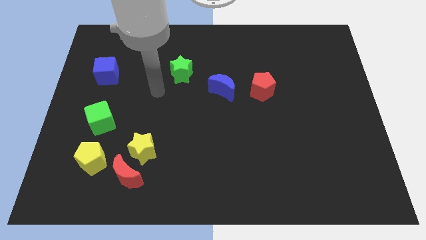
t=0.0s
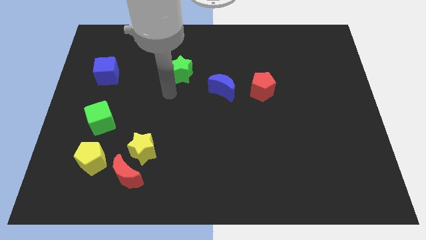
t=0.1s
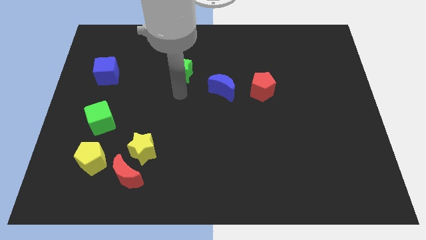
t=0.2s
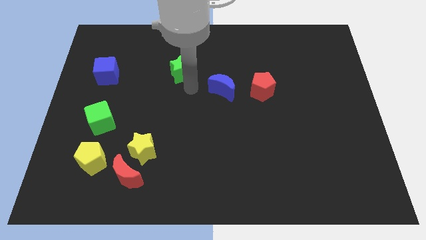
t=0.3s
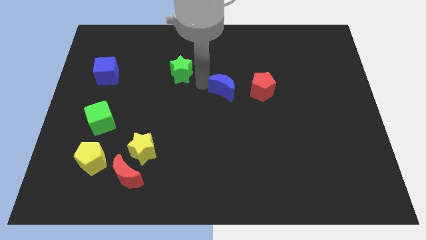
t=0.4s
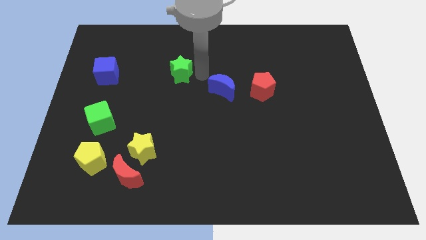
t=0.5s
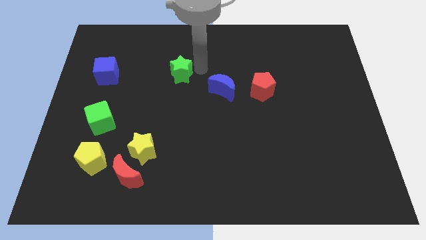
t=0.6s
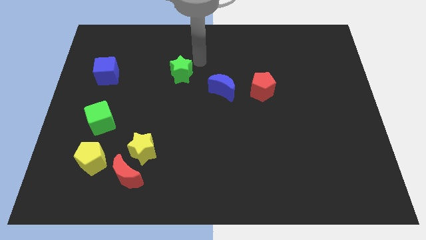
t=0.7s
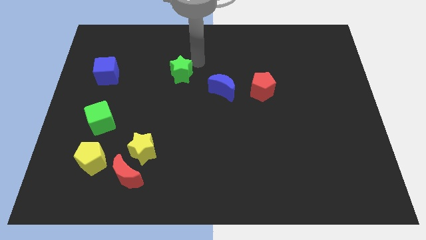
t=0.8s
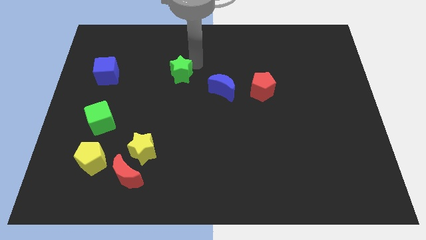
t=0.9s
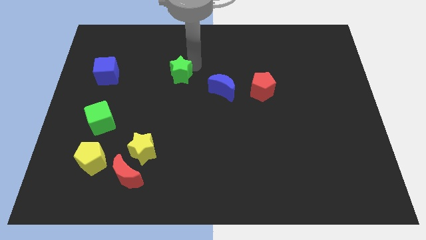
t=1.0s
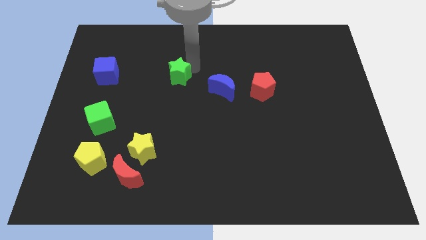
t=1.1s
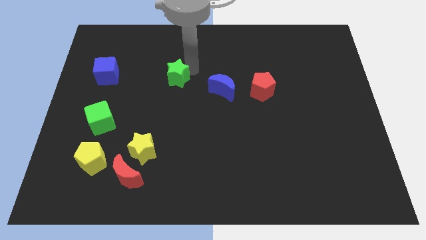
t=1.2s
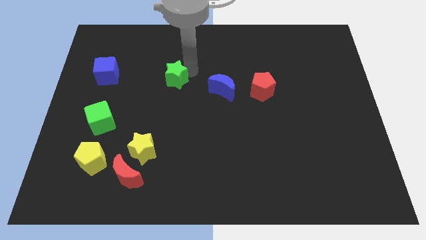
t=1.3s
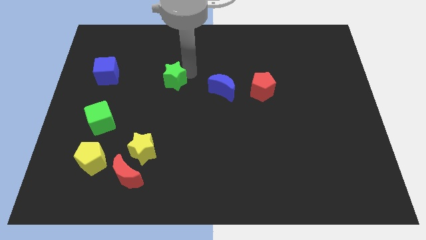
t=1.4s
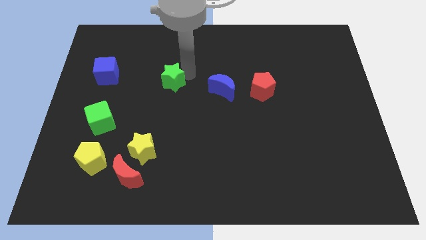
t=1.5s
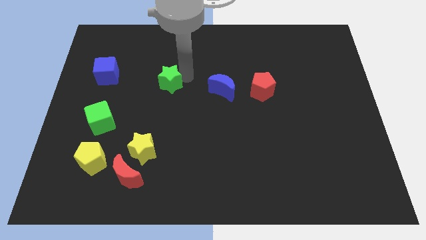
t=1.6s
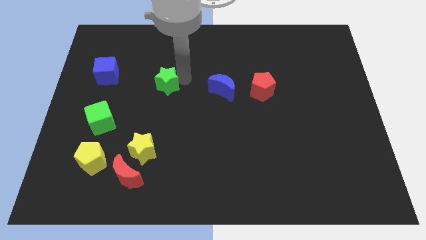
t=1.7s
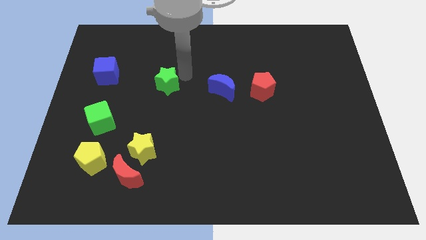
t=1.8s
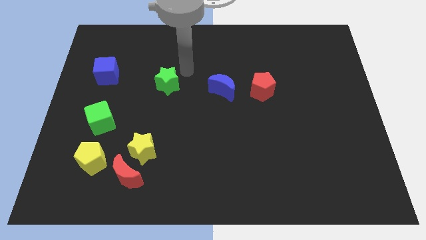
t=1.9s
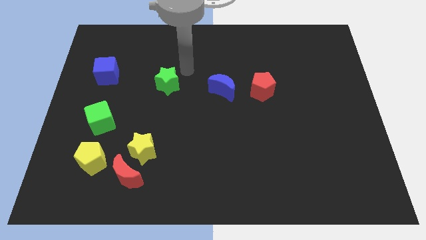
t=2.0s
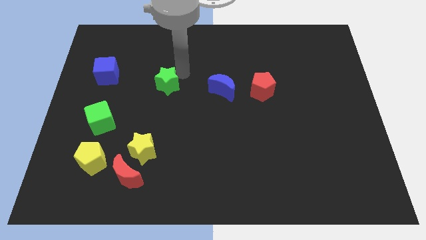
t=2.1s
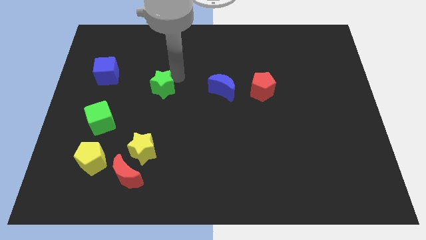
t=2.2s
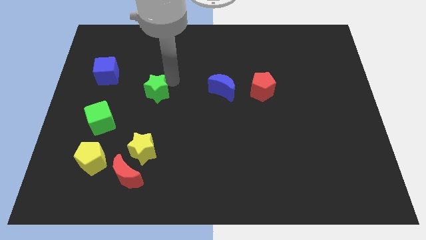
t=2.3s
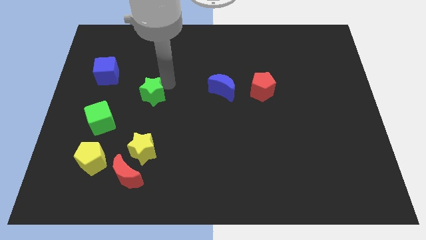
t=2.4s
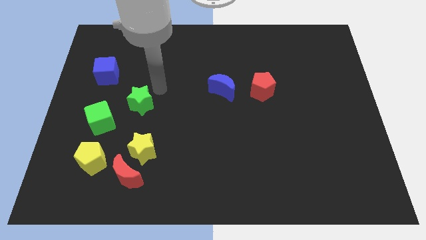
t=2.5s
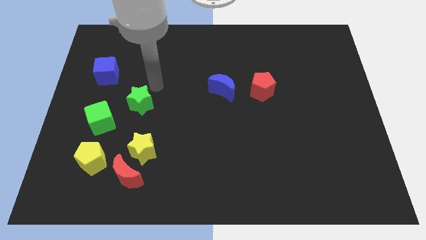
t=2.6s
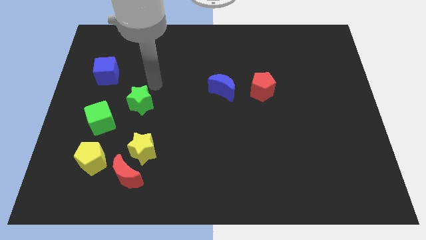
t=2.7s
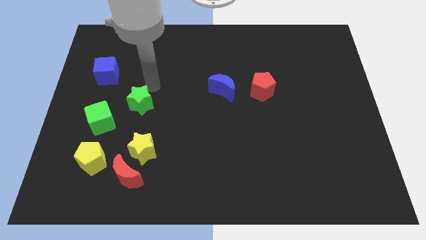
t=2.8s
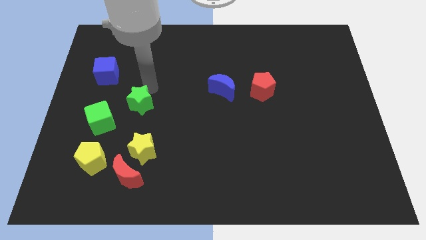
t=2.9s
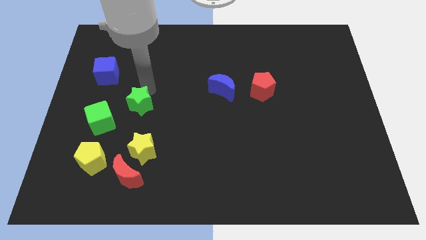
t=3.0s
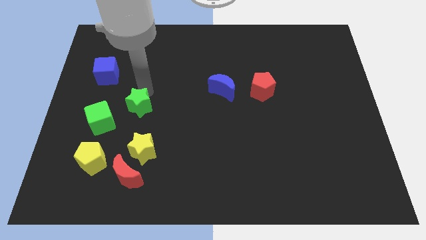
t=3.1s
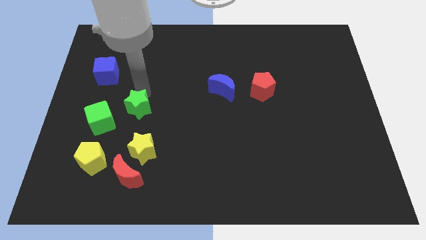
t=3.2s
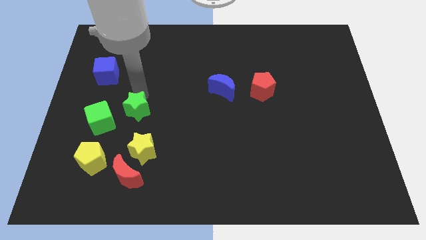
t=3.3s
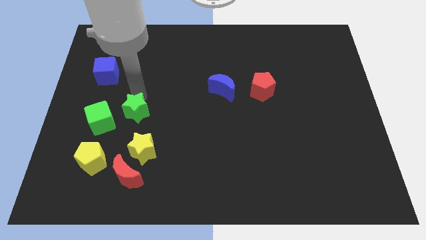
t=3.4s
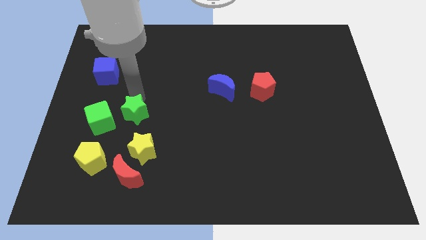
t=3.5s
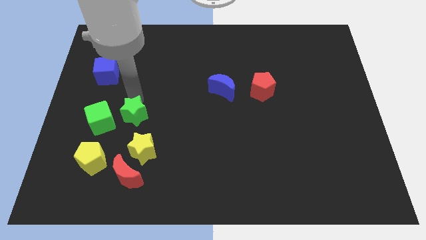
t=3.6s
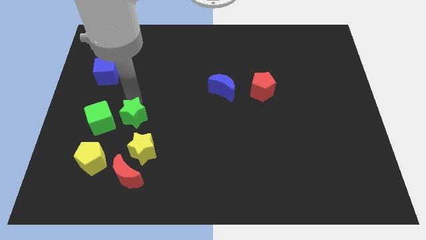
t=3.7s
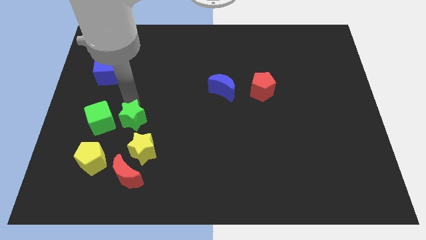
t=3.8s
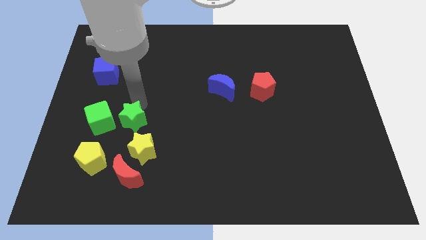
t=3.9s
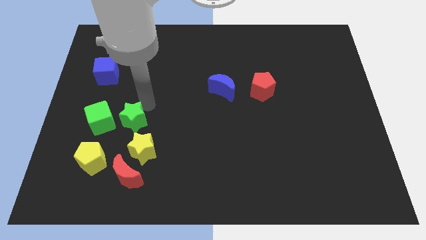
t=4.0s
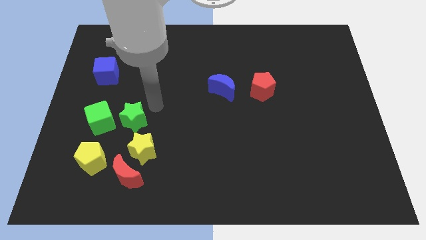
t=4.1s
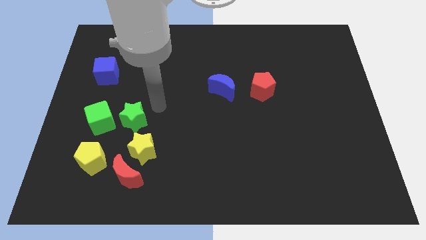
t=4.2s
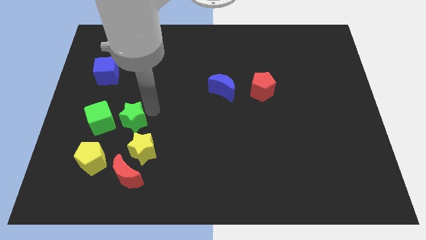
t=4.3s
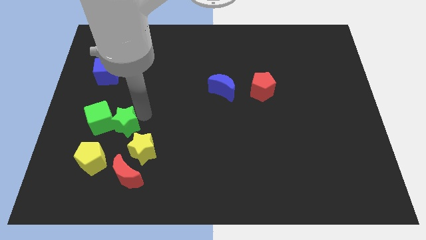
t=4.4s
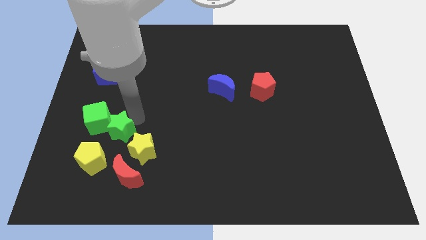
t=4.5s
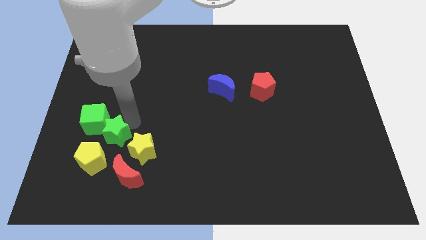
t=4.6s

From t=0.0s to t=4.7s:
push the green star just left of the yellow star

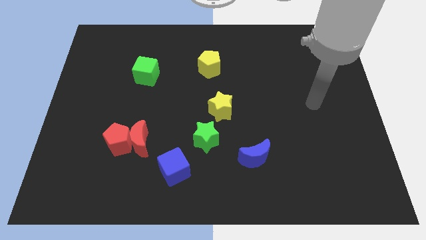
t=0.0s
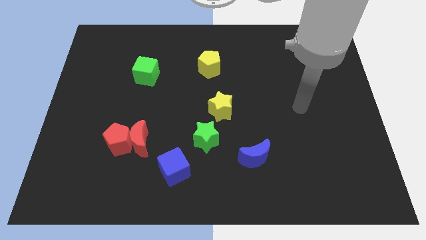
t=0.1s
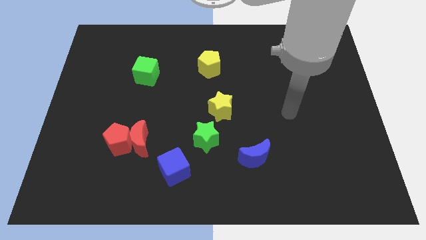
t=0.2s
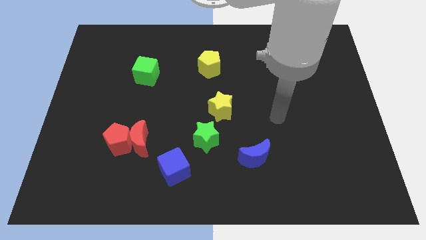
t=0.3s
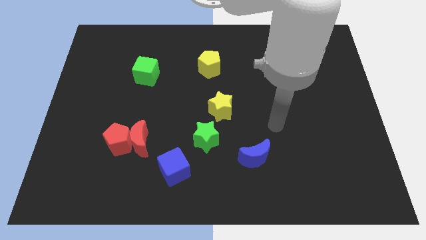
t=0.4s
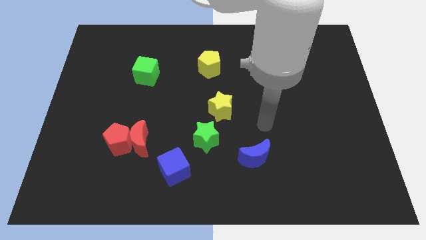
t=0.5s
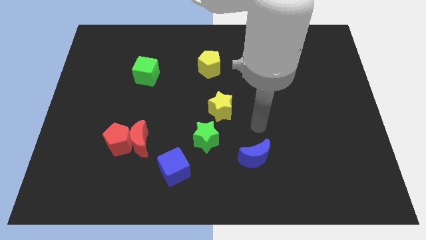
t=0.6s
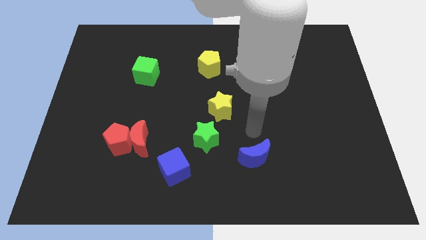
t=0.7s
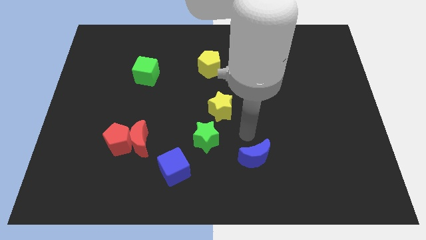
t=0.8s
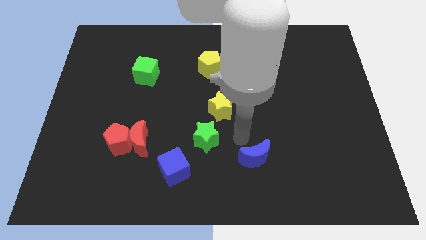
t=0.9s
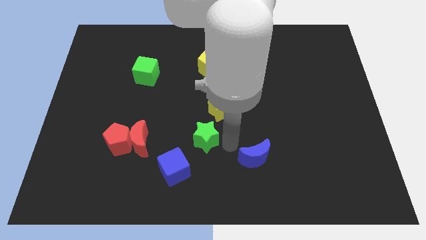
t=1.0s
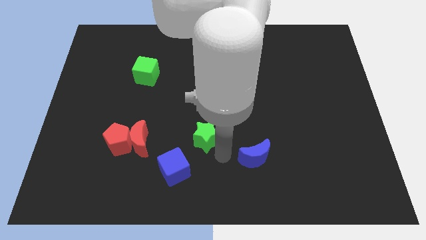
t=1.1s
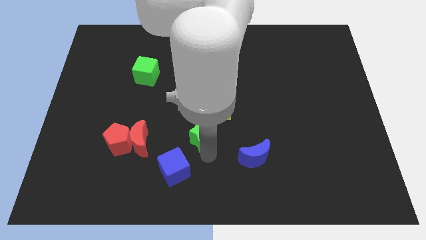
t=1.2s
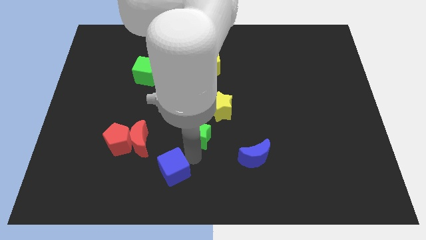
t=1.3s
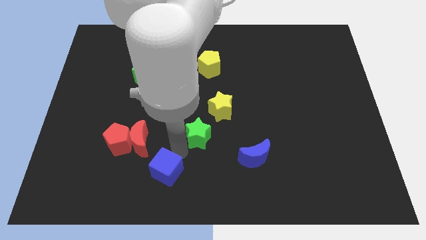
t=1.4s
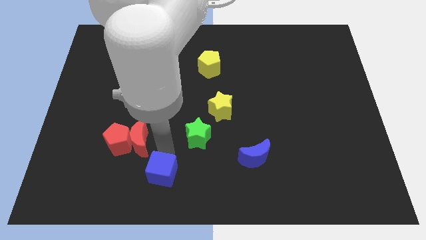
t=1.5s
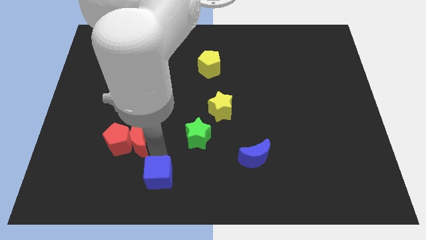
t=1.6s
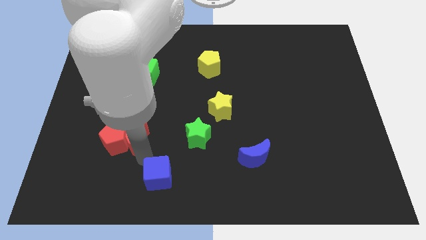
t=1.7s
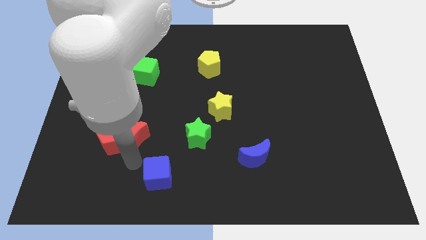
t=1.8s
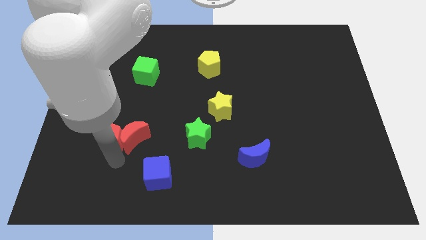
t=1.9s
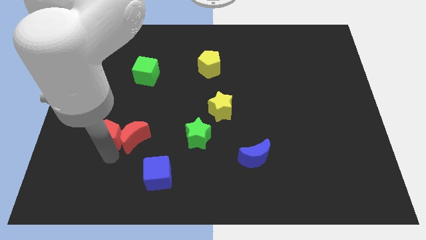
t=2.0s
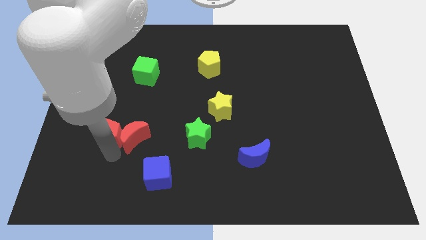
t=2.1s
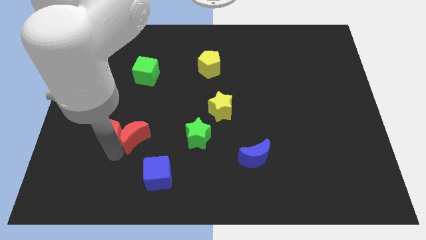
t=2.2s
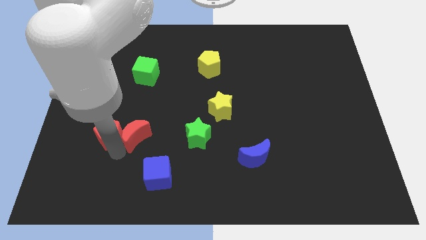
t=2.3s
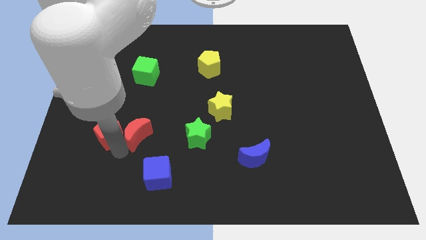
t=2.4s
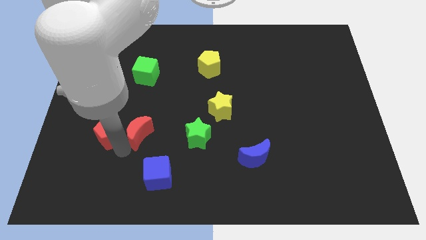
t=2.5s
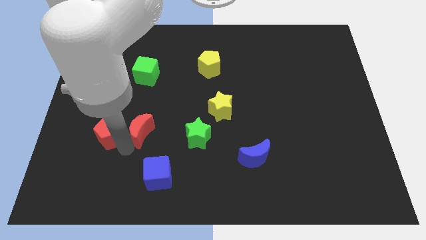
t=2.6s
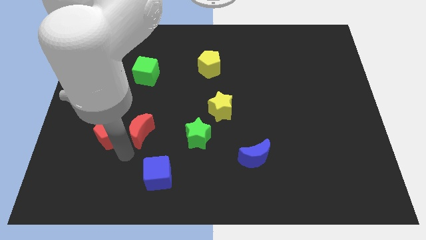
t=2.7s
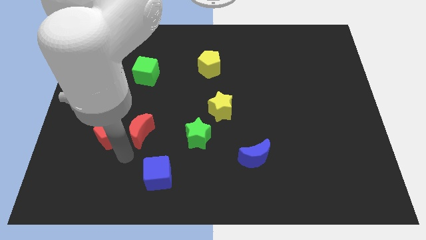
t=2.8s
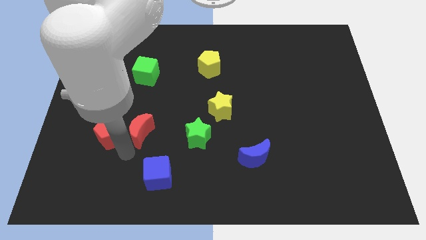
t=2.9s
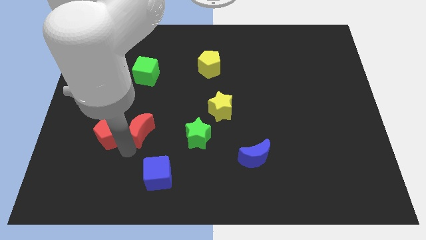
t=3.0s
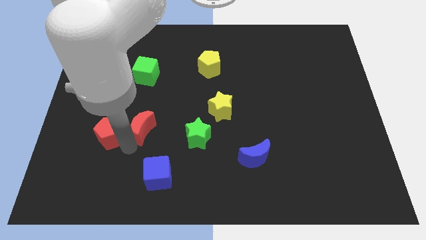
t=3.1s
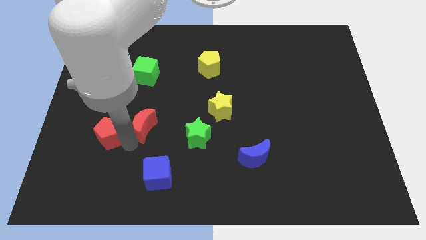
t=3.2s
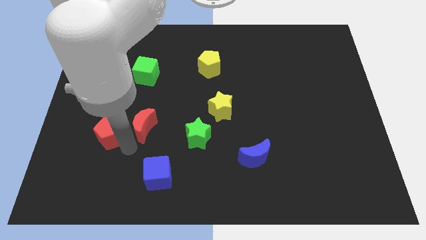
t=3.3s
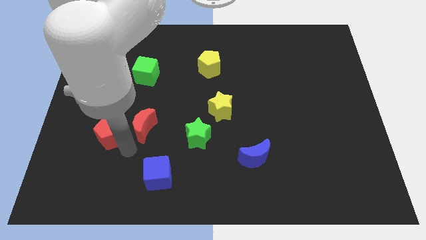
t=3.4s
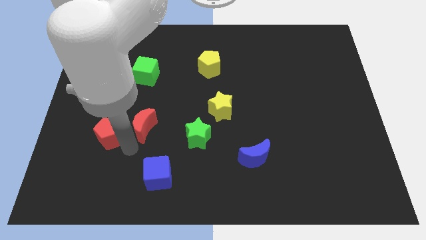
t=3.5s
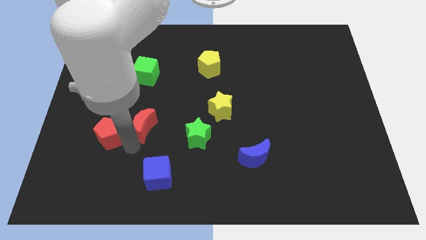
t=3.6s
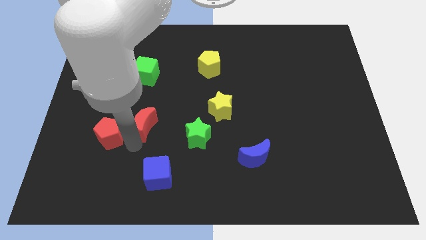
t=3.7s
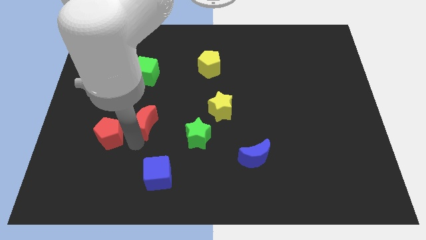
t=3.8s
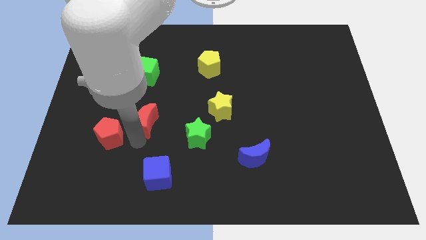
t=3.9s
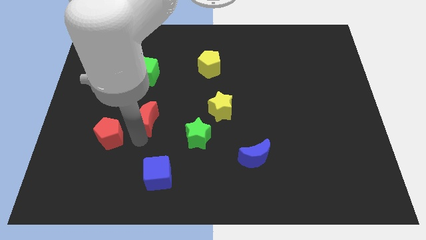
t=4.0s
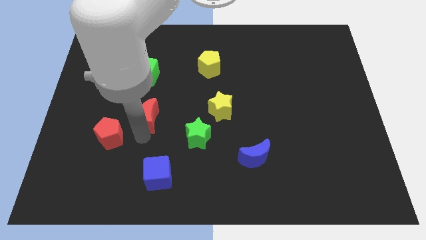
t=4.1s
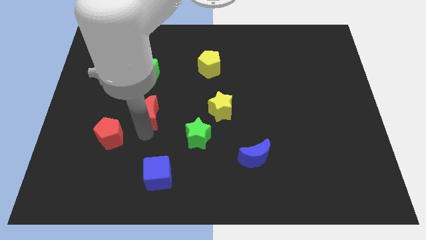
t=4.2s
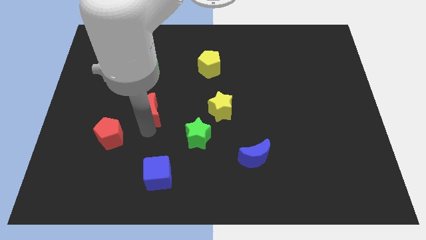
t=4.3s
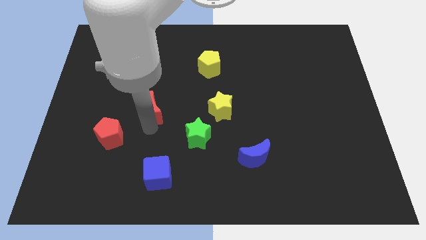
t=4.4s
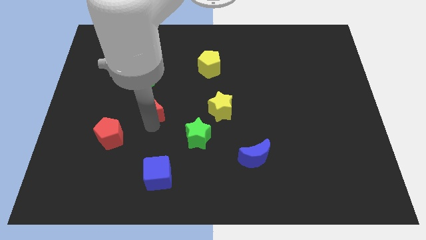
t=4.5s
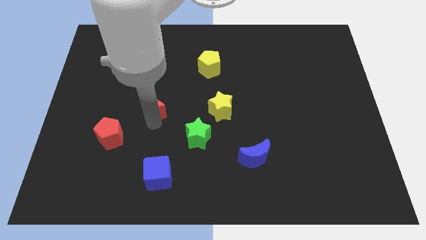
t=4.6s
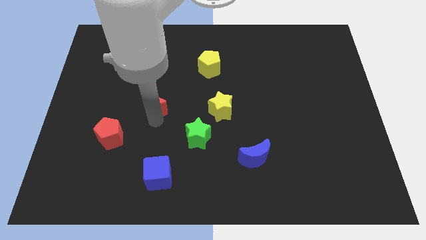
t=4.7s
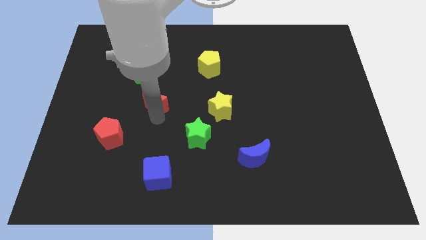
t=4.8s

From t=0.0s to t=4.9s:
put the red moon to the bottom right side of the green cube
